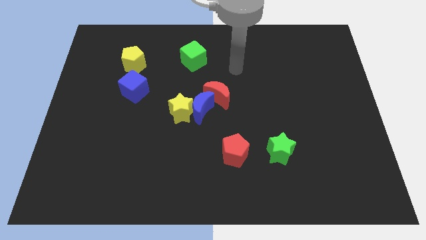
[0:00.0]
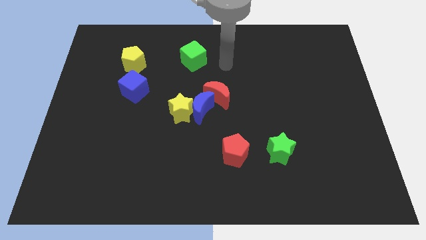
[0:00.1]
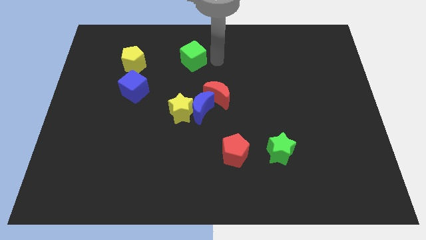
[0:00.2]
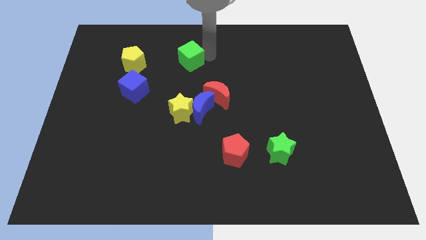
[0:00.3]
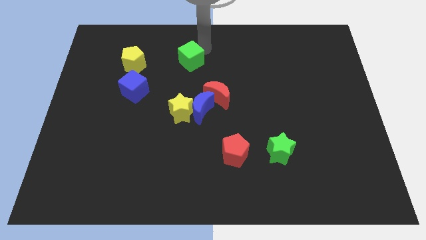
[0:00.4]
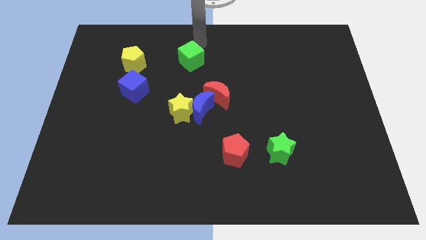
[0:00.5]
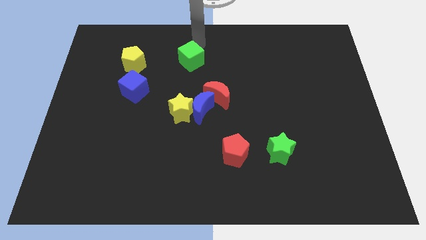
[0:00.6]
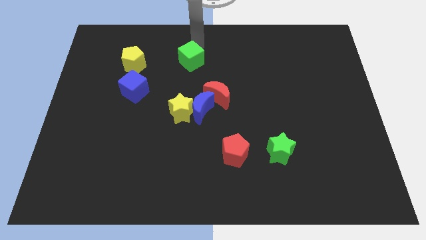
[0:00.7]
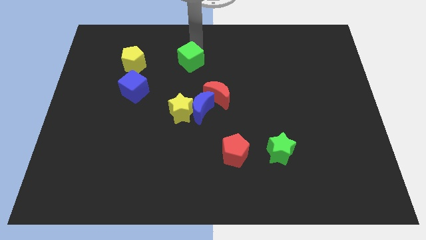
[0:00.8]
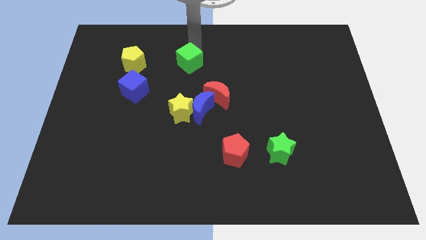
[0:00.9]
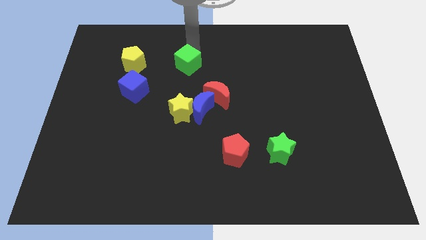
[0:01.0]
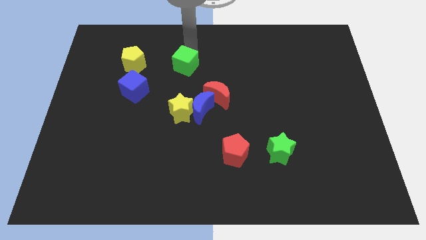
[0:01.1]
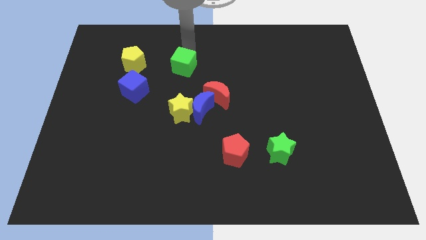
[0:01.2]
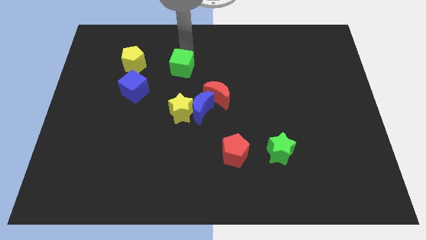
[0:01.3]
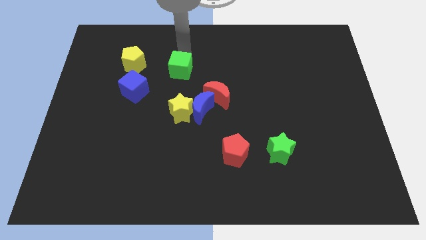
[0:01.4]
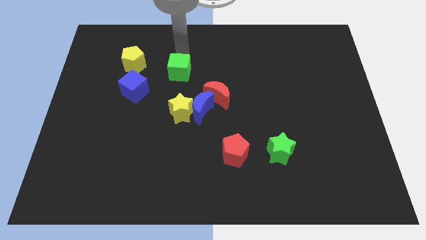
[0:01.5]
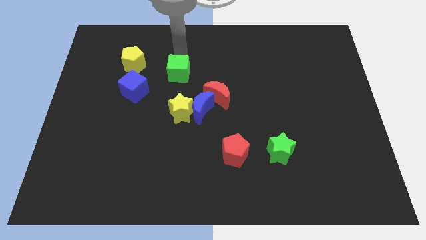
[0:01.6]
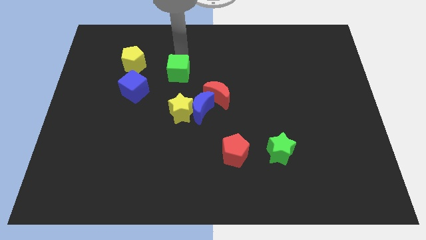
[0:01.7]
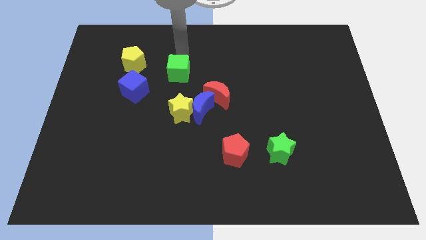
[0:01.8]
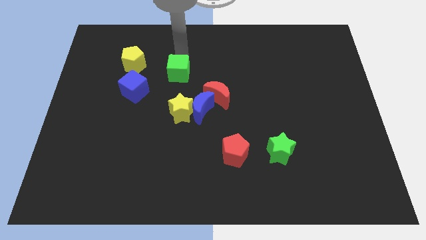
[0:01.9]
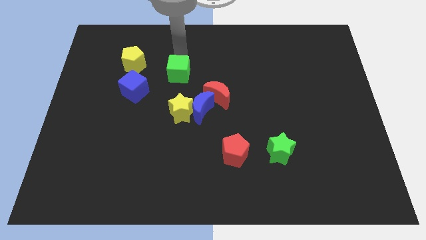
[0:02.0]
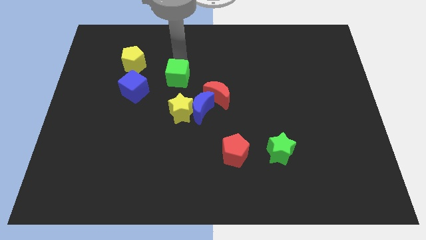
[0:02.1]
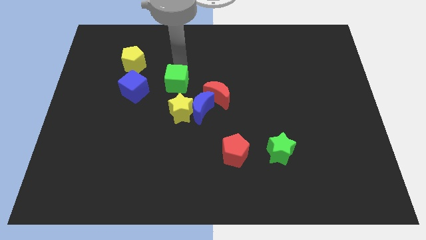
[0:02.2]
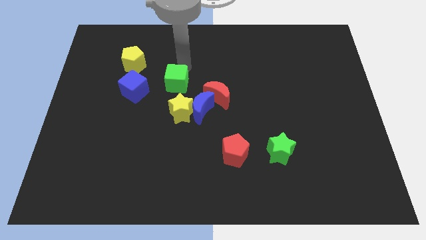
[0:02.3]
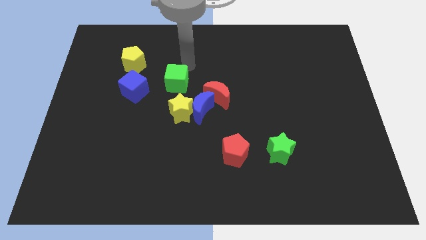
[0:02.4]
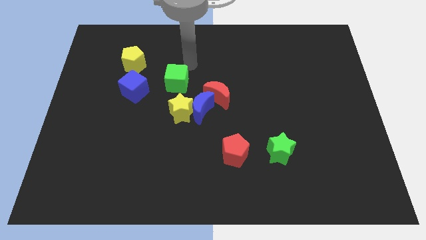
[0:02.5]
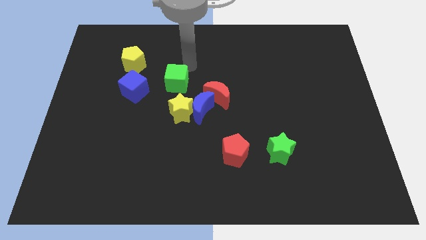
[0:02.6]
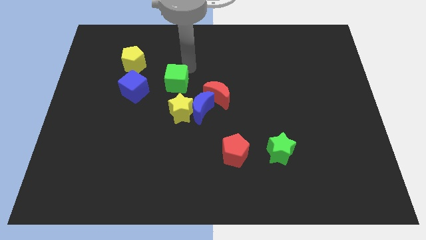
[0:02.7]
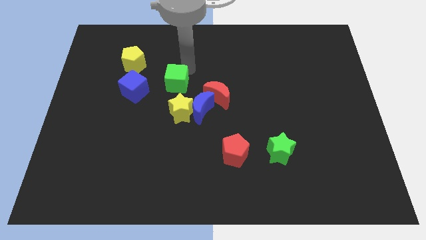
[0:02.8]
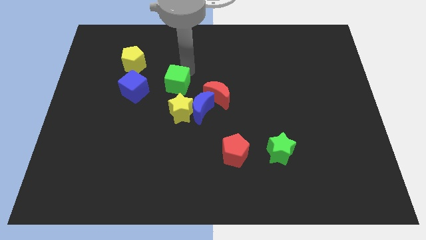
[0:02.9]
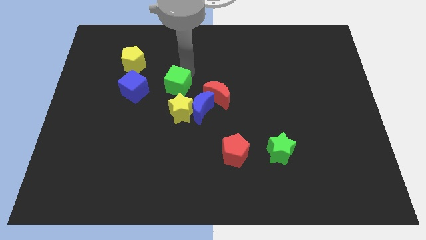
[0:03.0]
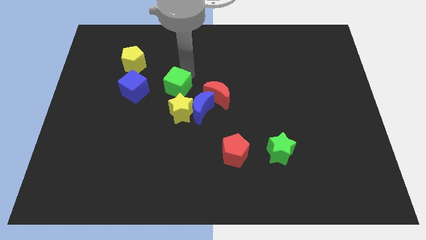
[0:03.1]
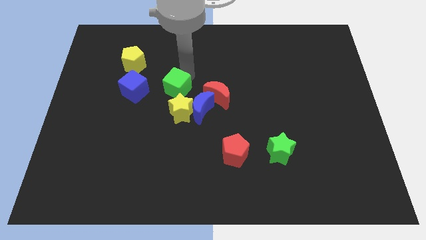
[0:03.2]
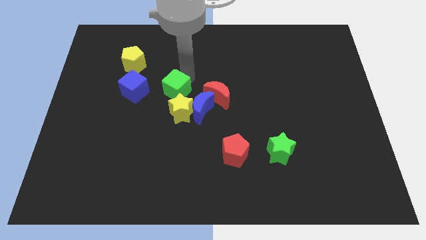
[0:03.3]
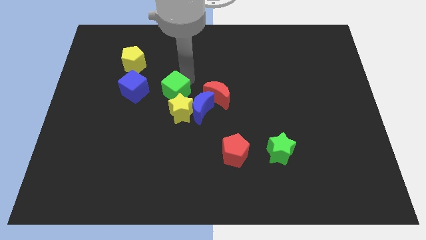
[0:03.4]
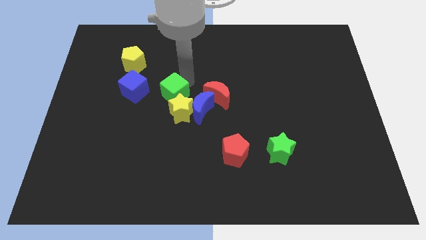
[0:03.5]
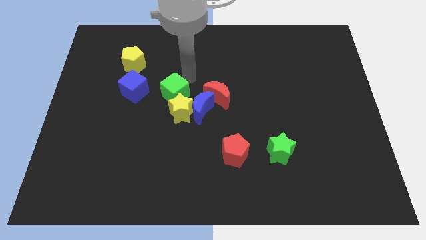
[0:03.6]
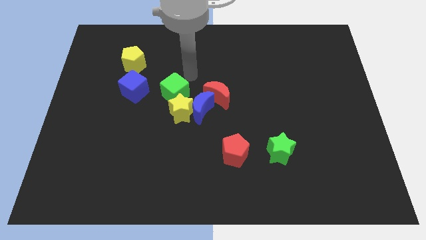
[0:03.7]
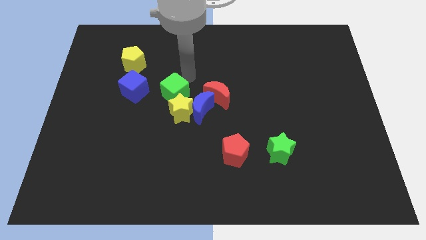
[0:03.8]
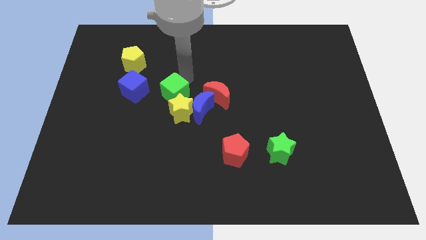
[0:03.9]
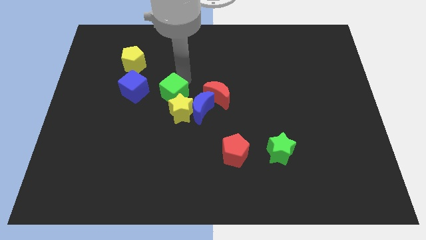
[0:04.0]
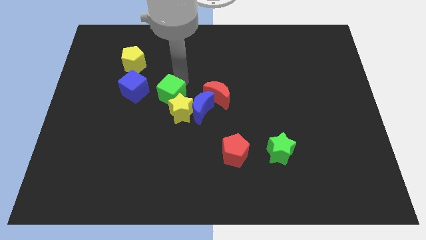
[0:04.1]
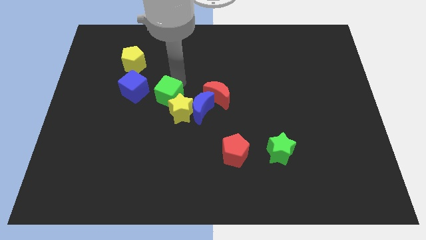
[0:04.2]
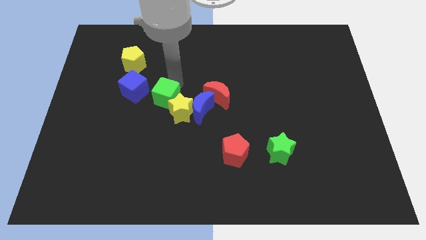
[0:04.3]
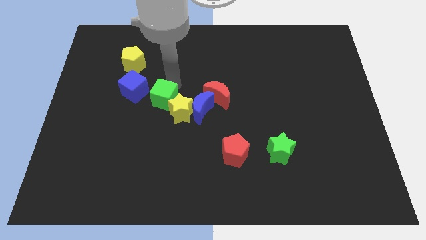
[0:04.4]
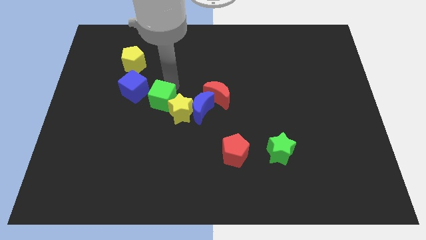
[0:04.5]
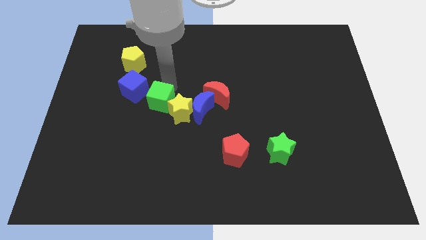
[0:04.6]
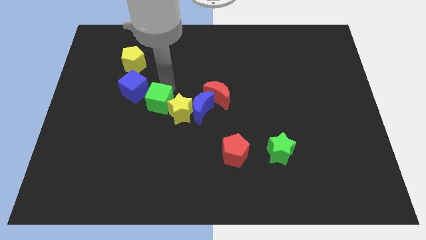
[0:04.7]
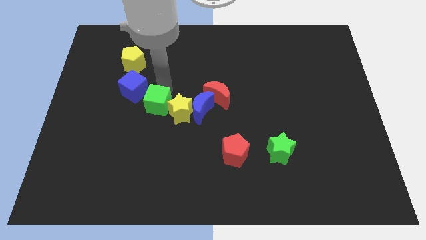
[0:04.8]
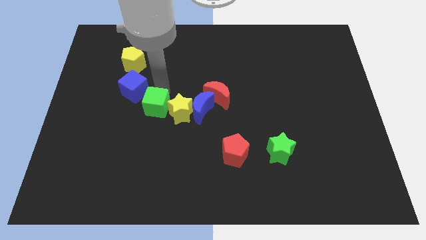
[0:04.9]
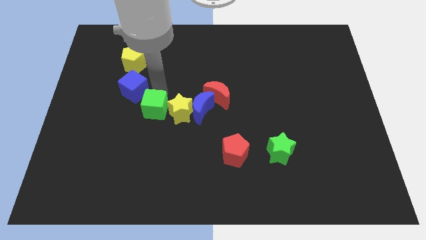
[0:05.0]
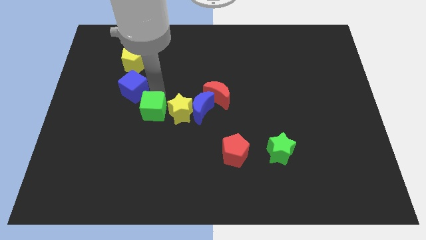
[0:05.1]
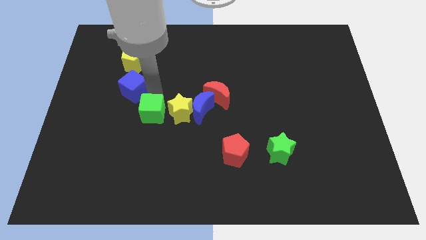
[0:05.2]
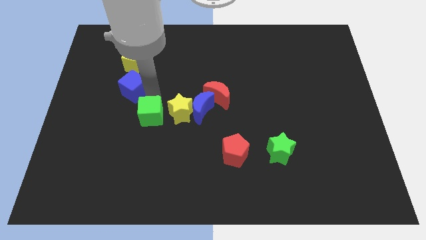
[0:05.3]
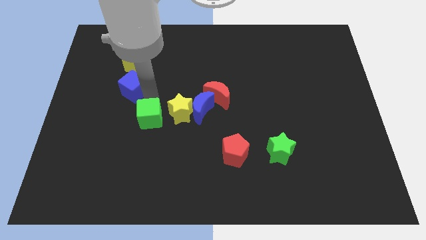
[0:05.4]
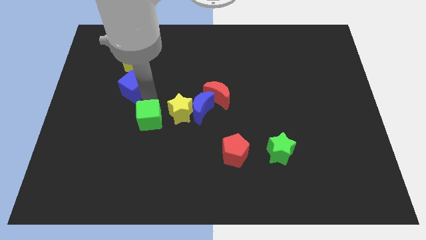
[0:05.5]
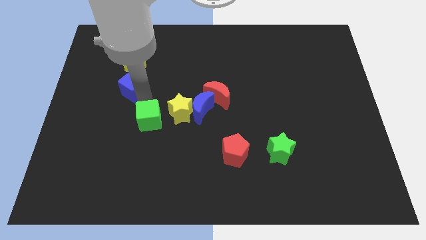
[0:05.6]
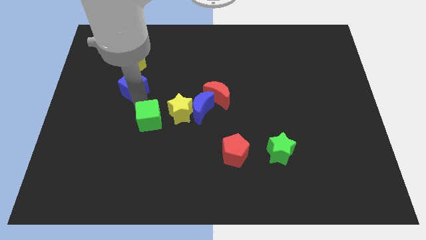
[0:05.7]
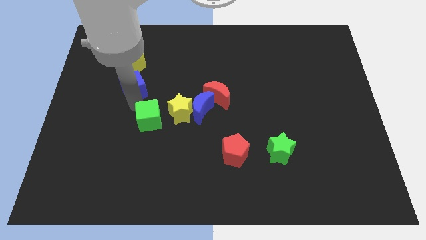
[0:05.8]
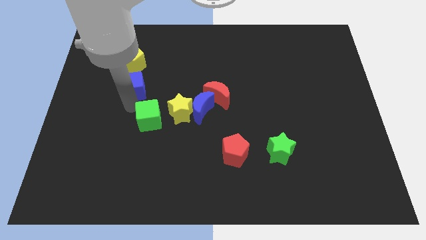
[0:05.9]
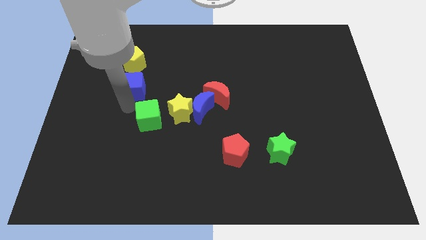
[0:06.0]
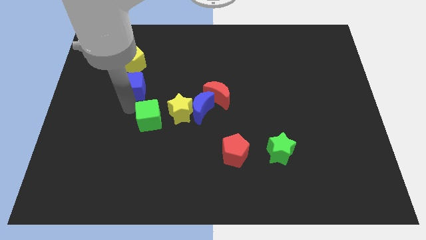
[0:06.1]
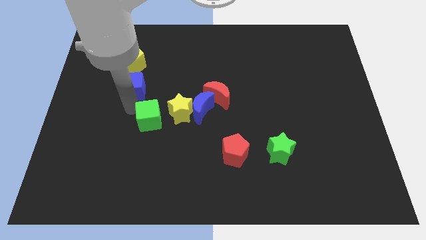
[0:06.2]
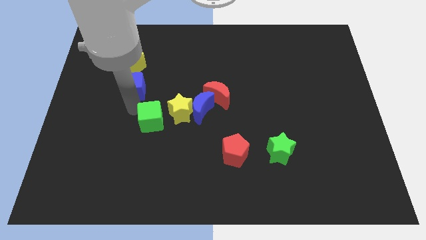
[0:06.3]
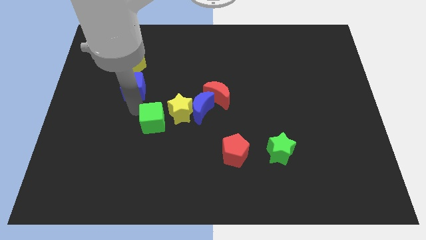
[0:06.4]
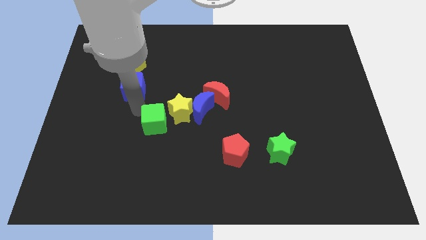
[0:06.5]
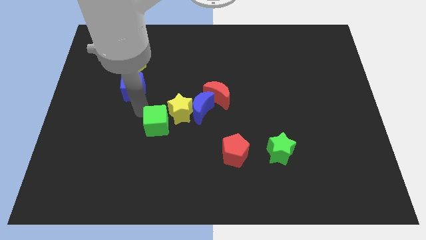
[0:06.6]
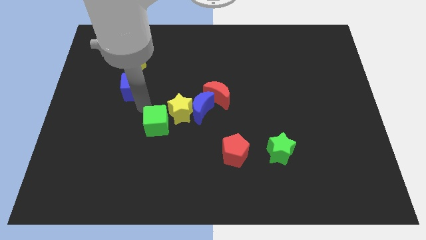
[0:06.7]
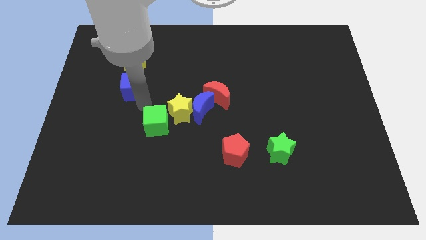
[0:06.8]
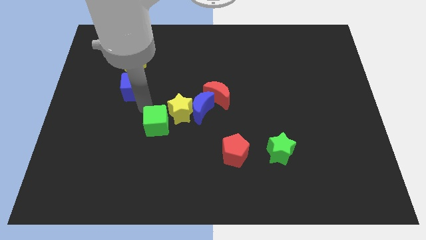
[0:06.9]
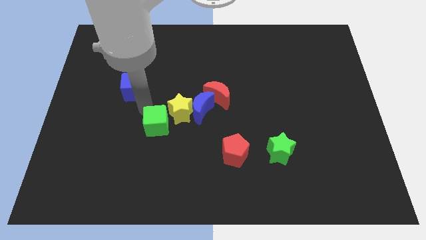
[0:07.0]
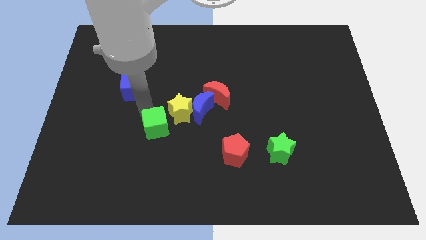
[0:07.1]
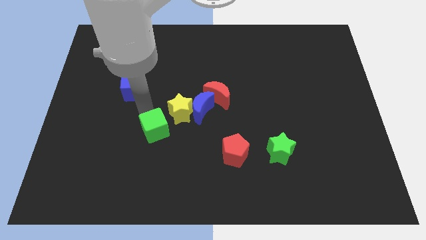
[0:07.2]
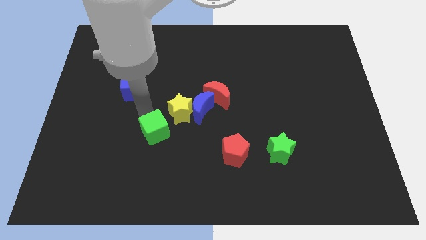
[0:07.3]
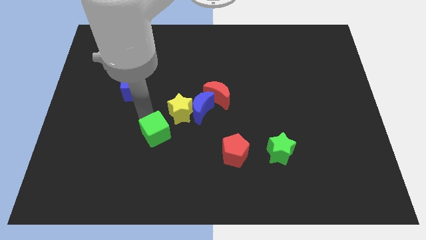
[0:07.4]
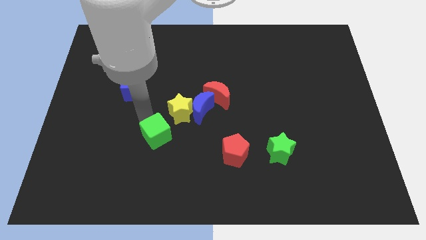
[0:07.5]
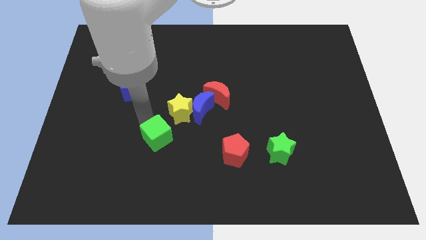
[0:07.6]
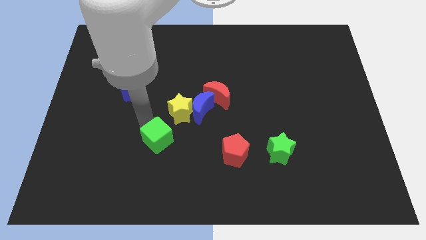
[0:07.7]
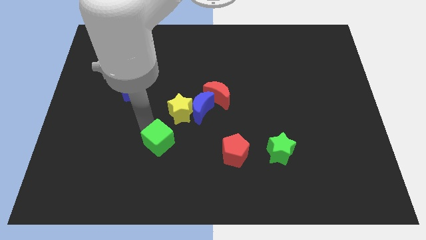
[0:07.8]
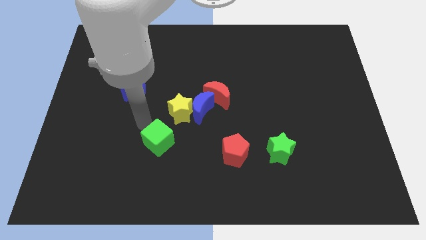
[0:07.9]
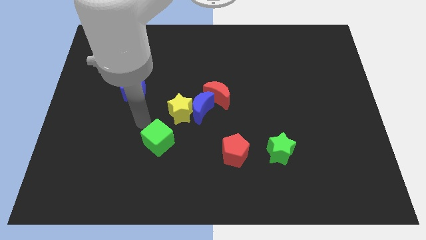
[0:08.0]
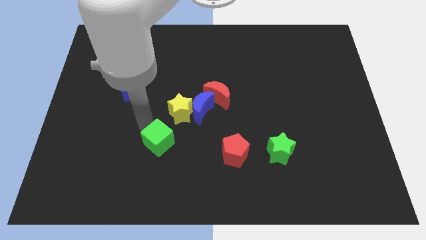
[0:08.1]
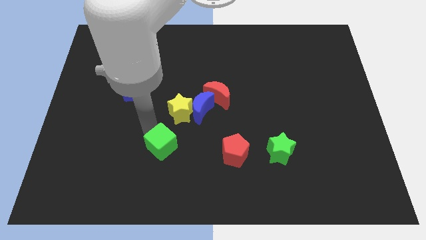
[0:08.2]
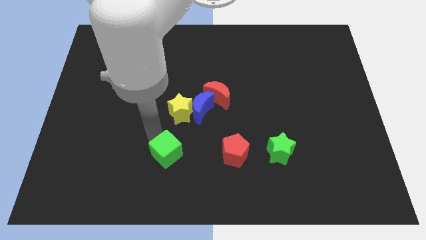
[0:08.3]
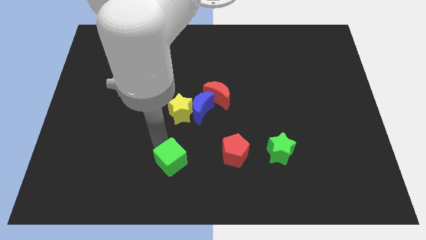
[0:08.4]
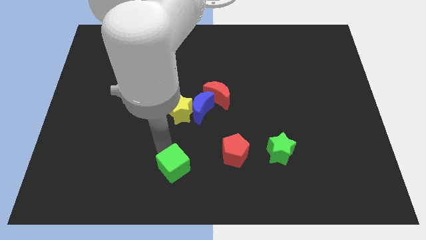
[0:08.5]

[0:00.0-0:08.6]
put the green cube to the bottom side
